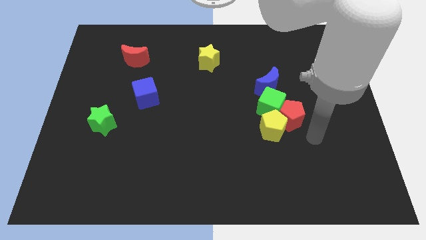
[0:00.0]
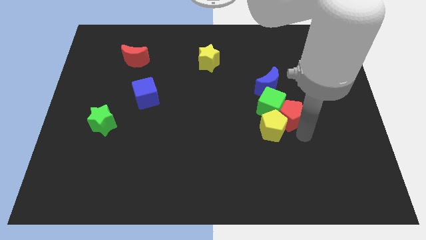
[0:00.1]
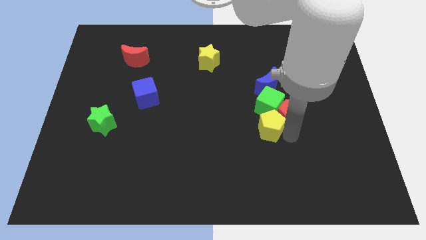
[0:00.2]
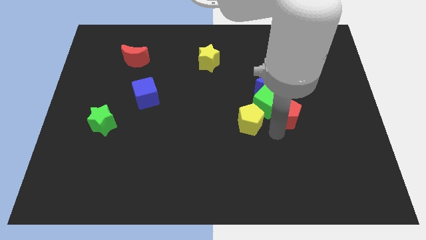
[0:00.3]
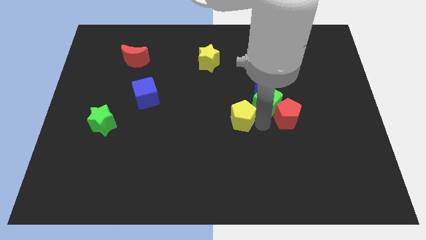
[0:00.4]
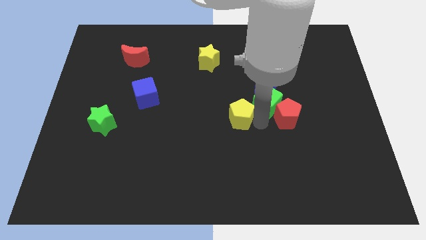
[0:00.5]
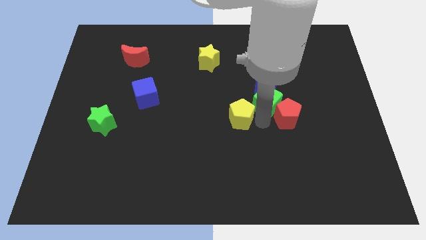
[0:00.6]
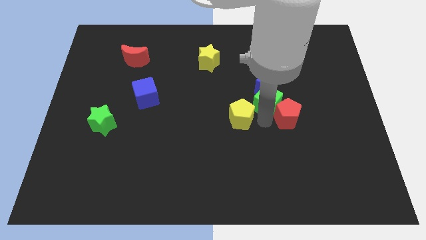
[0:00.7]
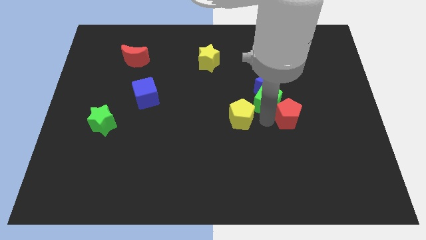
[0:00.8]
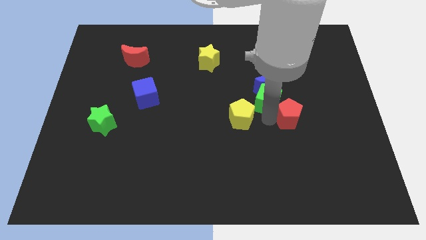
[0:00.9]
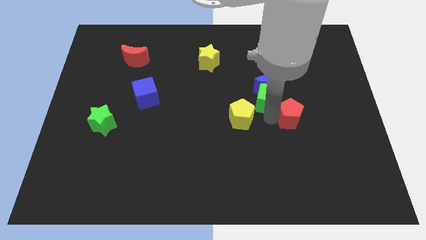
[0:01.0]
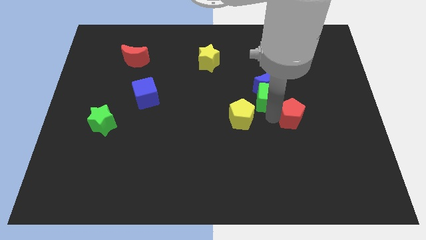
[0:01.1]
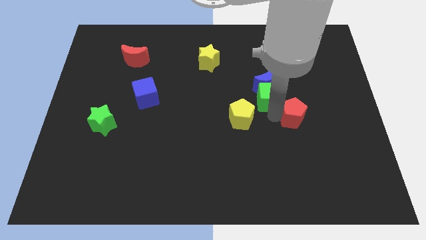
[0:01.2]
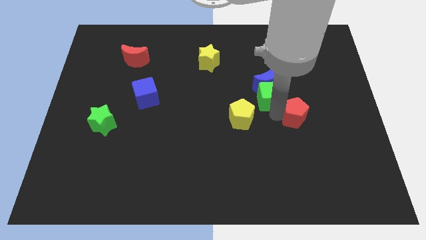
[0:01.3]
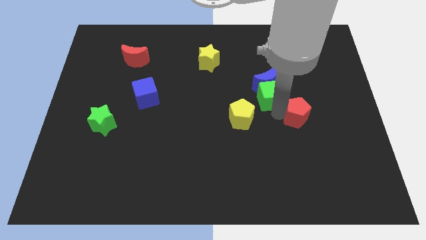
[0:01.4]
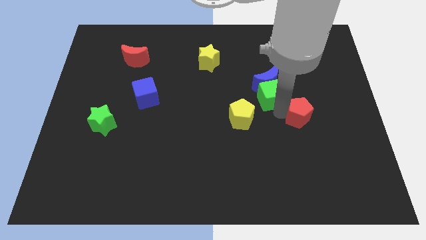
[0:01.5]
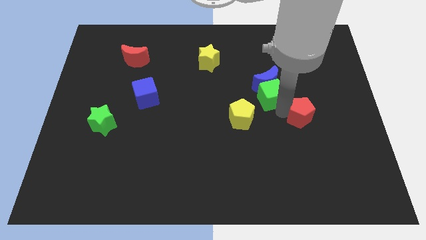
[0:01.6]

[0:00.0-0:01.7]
pull the red pentagon apart from the yellow pentagon and green cube

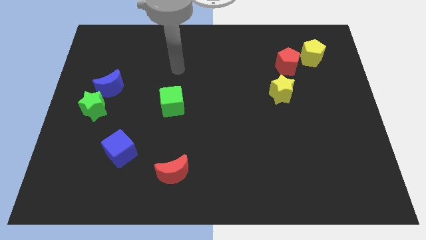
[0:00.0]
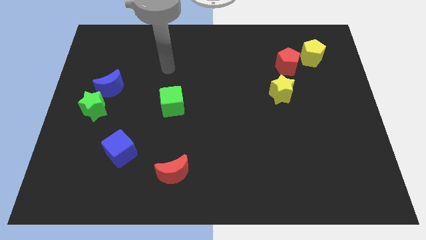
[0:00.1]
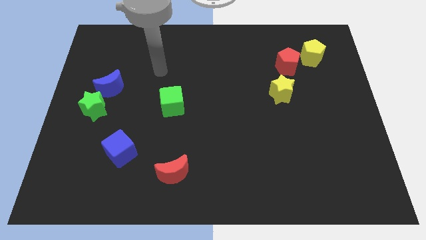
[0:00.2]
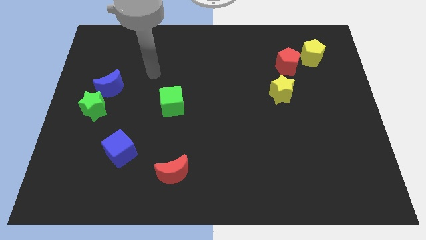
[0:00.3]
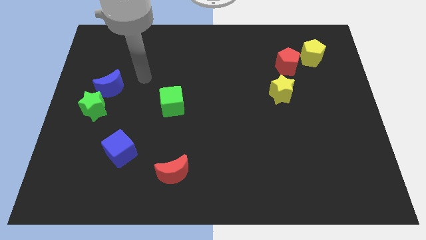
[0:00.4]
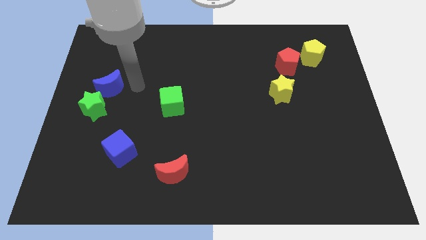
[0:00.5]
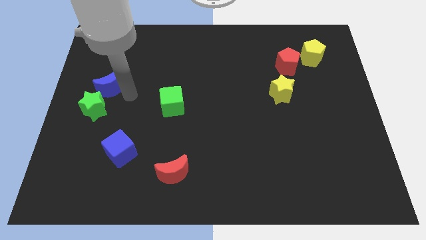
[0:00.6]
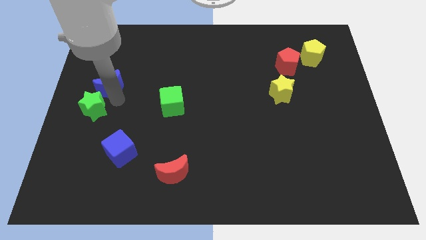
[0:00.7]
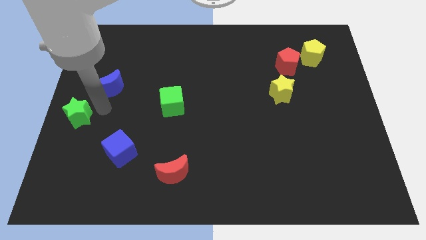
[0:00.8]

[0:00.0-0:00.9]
separate the blue moon from the green star

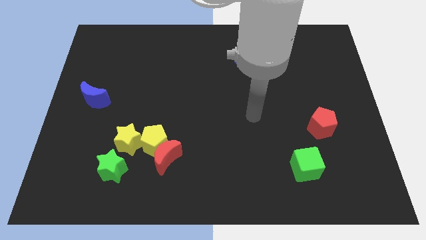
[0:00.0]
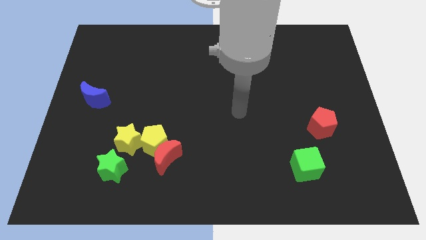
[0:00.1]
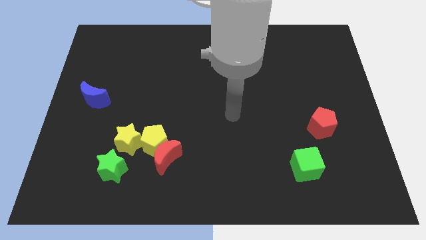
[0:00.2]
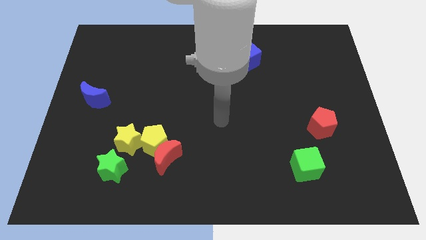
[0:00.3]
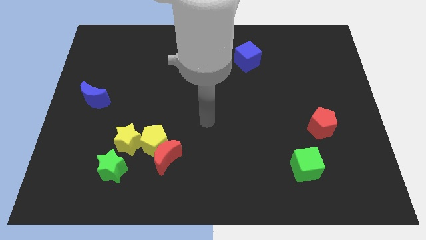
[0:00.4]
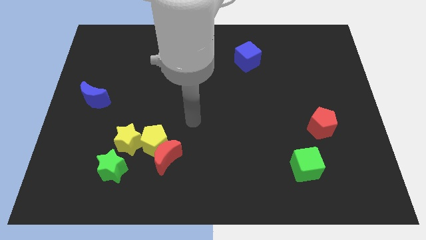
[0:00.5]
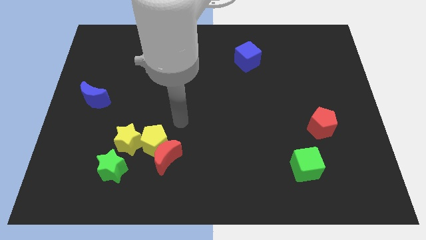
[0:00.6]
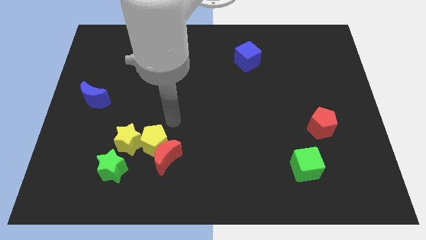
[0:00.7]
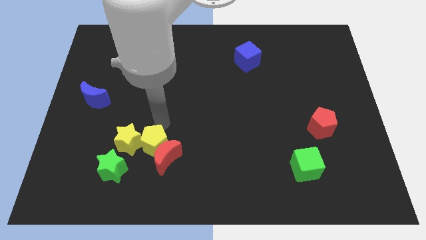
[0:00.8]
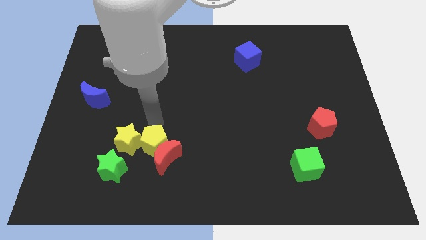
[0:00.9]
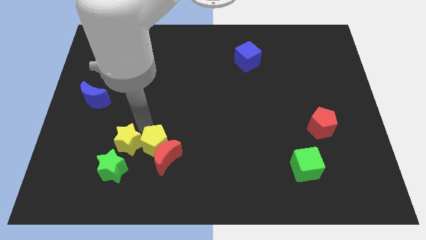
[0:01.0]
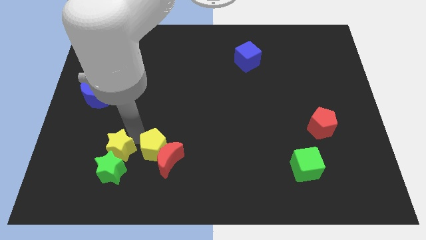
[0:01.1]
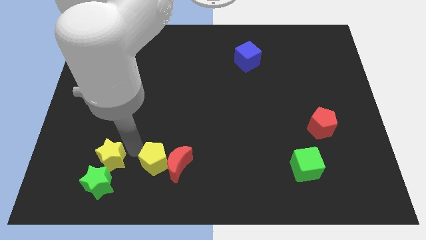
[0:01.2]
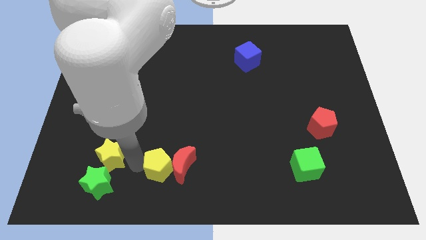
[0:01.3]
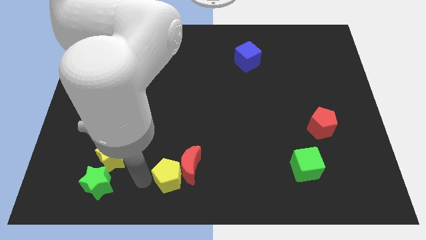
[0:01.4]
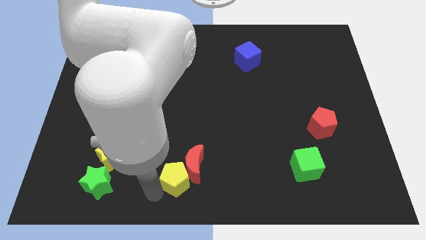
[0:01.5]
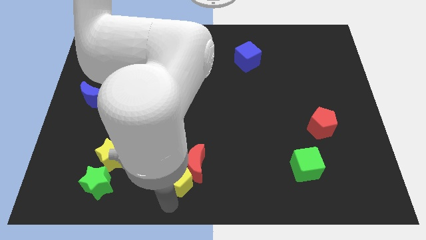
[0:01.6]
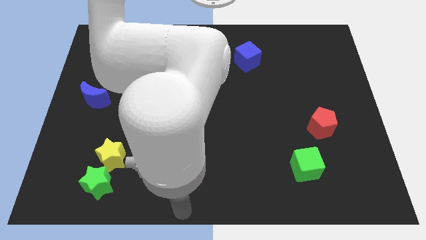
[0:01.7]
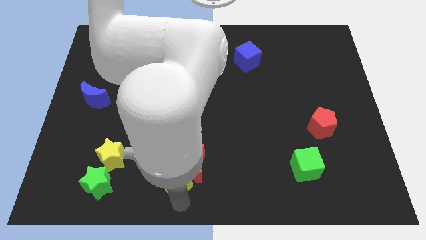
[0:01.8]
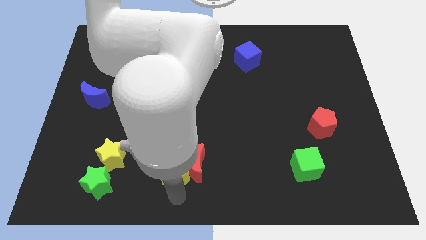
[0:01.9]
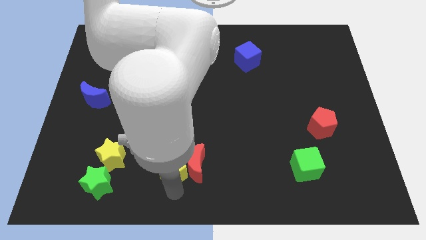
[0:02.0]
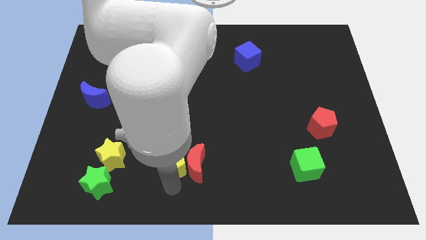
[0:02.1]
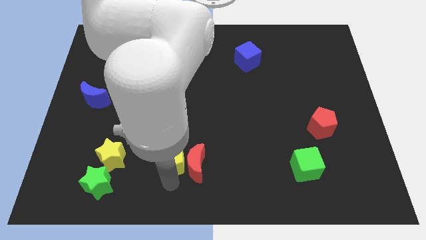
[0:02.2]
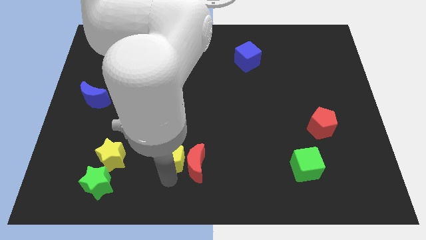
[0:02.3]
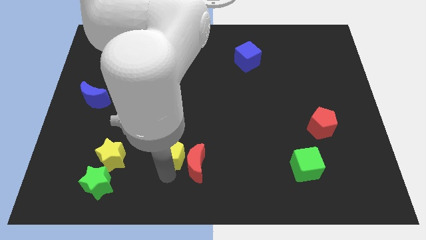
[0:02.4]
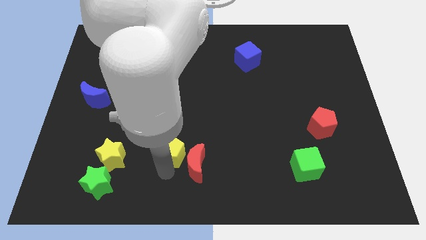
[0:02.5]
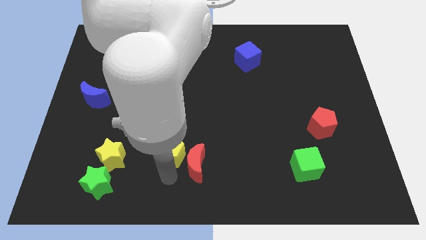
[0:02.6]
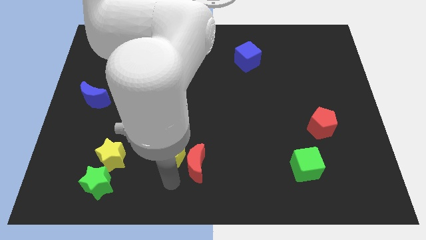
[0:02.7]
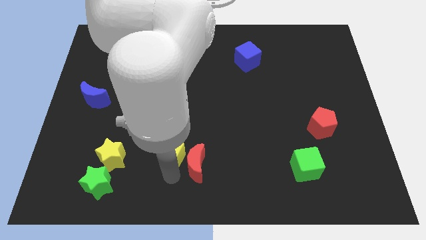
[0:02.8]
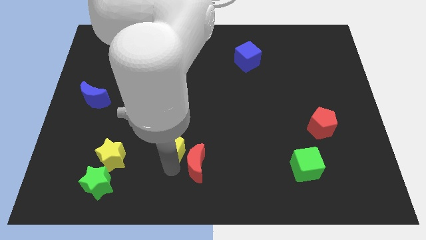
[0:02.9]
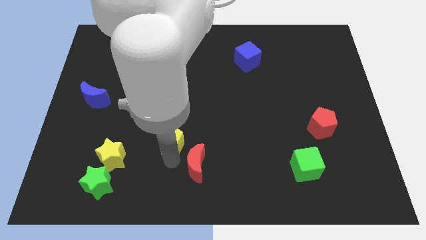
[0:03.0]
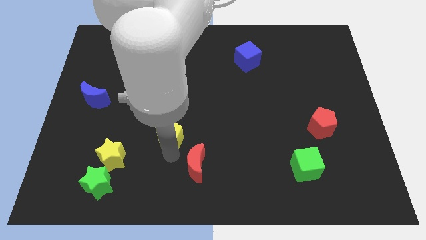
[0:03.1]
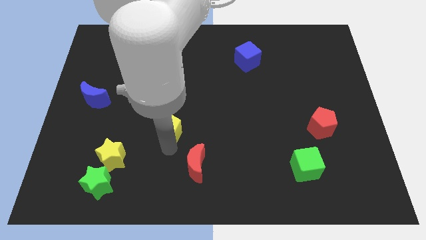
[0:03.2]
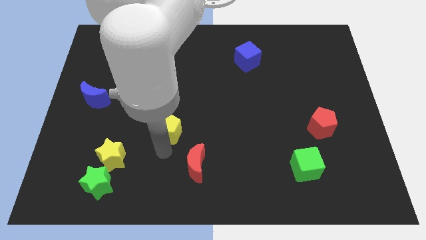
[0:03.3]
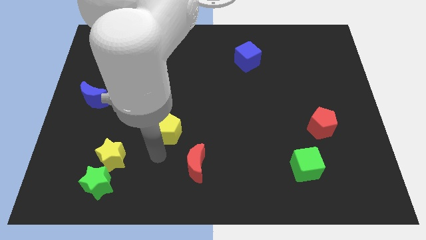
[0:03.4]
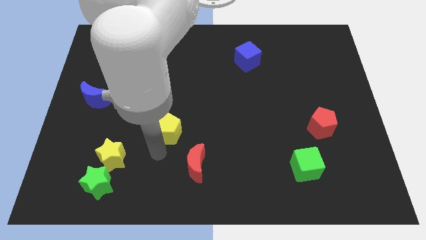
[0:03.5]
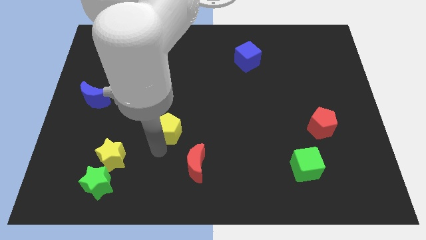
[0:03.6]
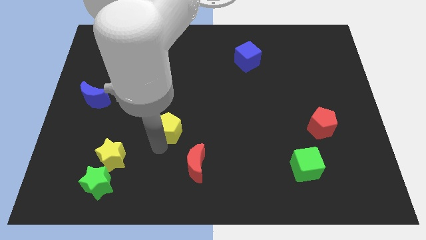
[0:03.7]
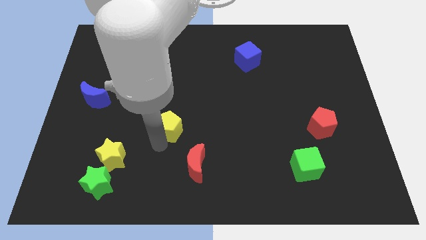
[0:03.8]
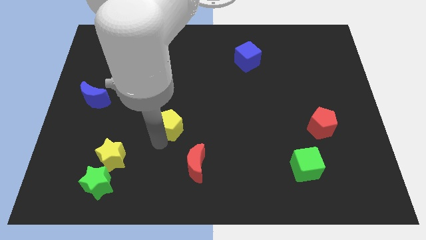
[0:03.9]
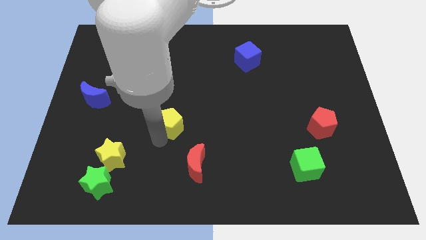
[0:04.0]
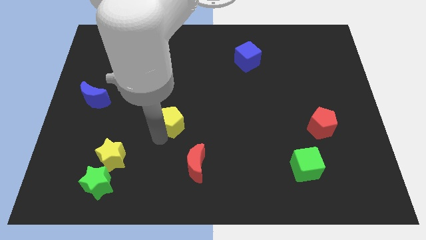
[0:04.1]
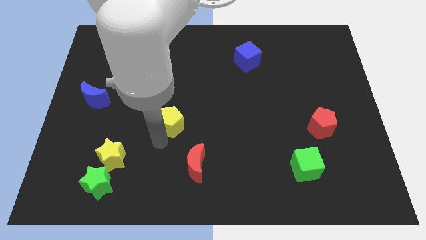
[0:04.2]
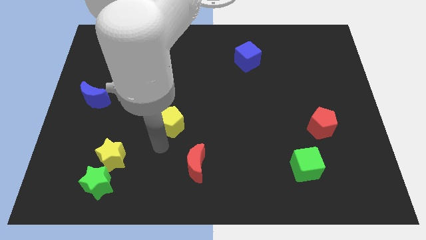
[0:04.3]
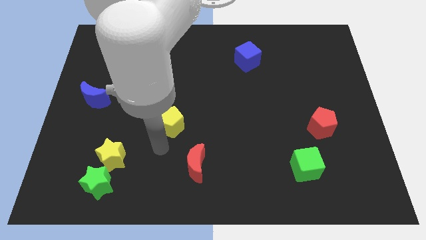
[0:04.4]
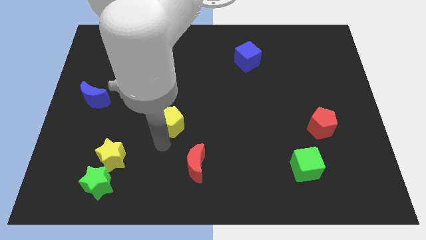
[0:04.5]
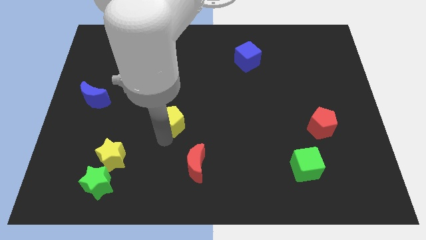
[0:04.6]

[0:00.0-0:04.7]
move the yellow pentagon away from the red moon and yellow star

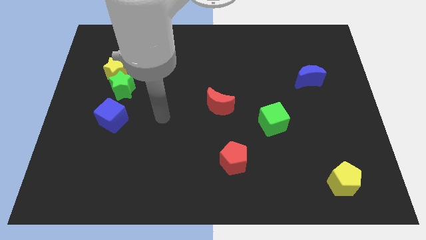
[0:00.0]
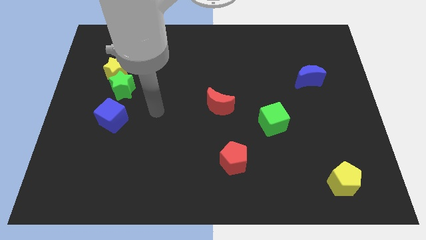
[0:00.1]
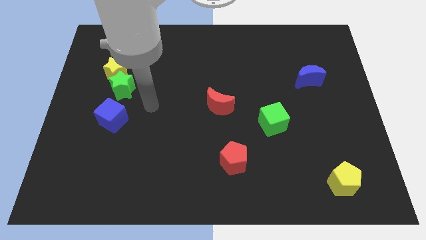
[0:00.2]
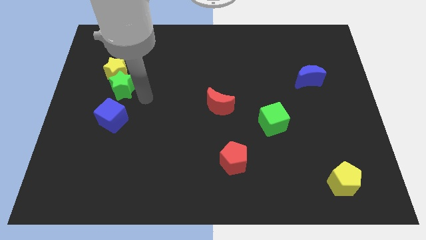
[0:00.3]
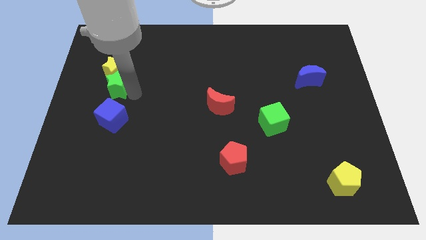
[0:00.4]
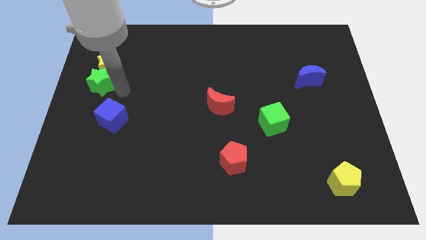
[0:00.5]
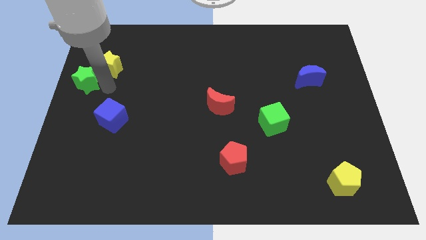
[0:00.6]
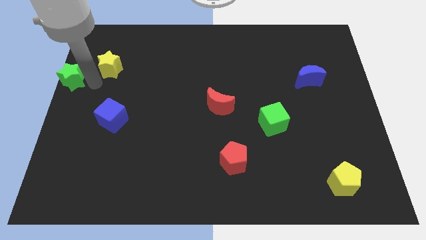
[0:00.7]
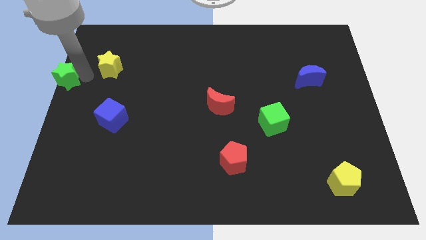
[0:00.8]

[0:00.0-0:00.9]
move the yellow star away from the green star

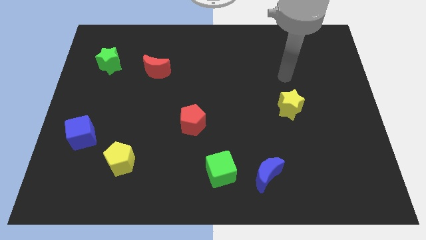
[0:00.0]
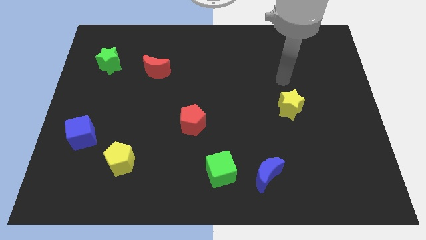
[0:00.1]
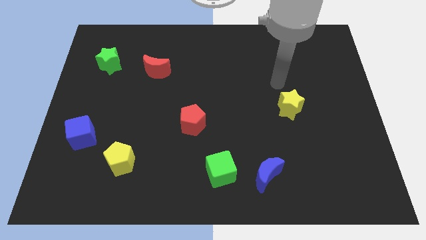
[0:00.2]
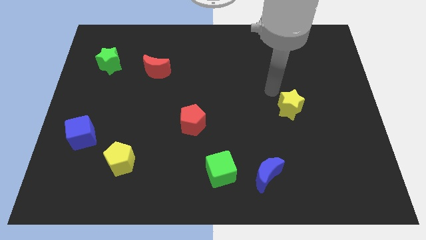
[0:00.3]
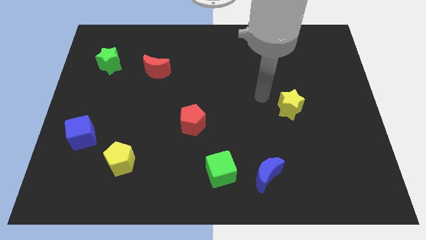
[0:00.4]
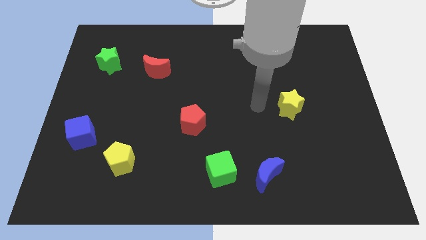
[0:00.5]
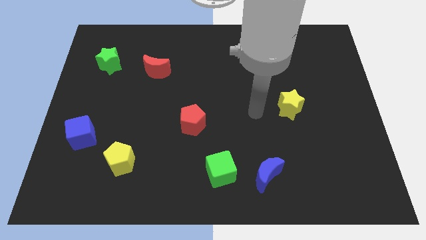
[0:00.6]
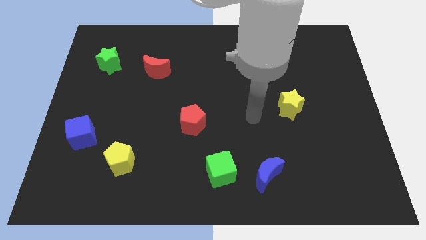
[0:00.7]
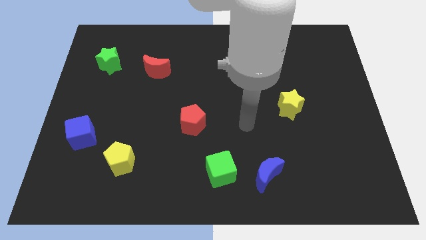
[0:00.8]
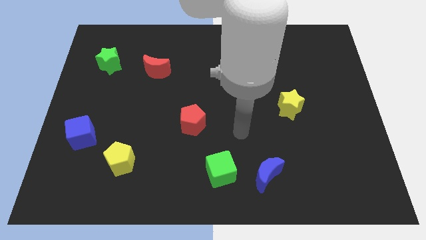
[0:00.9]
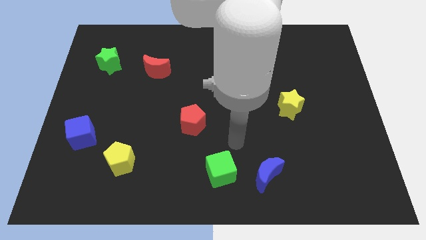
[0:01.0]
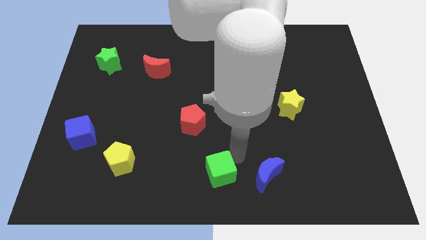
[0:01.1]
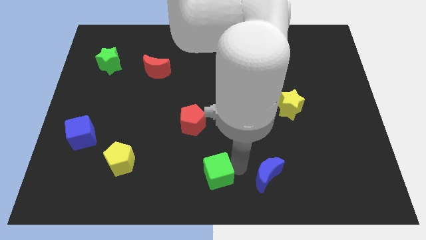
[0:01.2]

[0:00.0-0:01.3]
separate the blue moon from the green cube

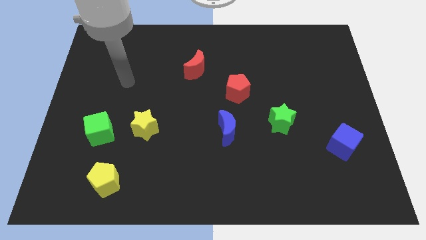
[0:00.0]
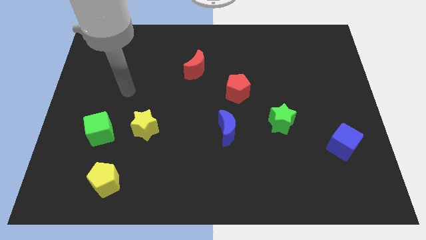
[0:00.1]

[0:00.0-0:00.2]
pull the green cube apart from the yellow star
